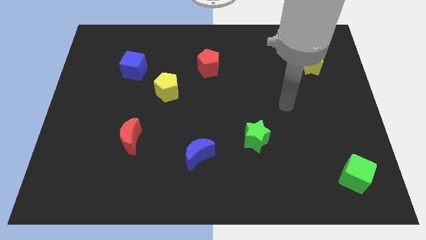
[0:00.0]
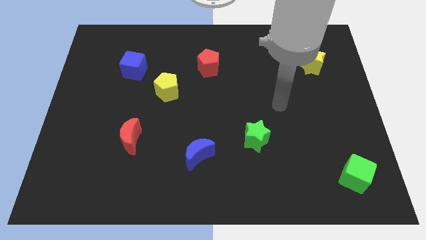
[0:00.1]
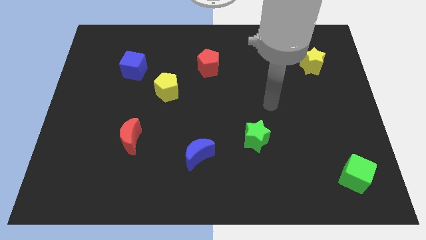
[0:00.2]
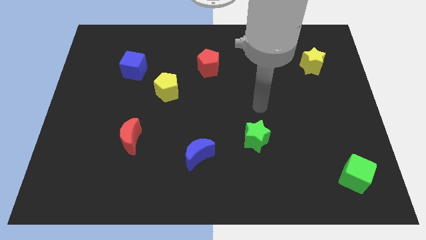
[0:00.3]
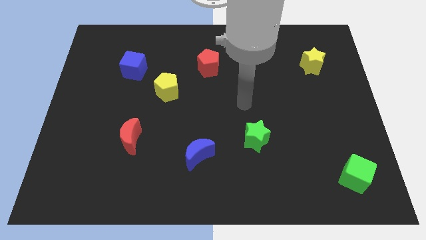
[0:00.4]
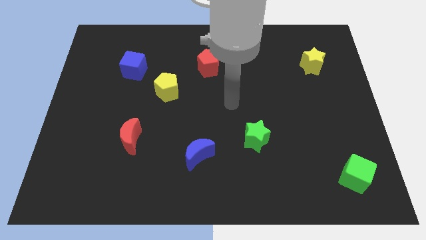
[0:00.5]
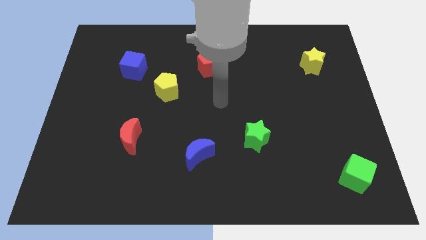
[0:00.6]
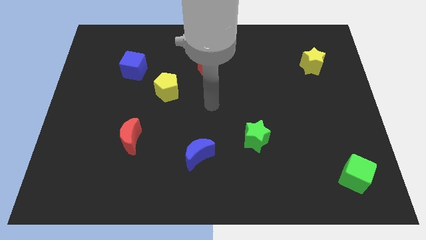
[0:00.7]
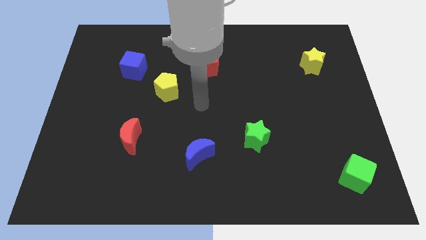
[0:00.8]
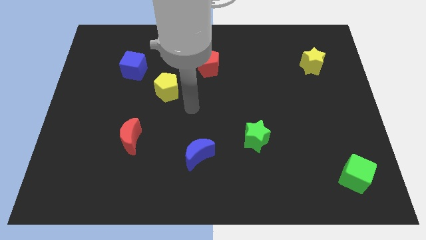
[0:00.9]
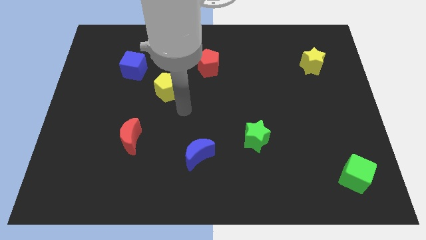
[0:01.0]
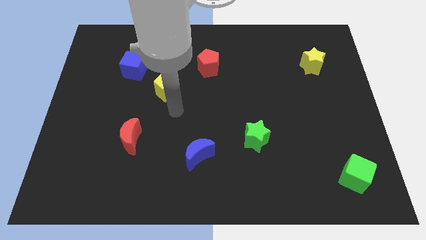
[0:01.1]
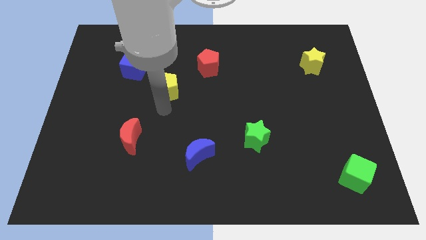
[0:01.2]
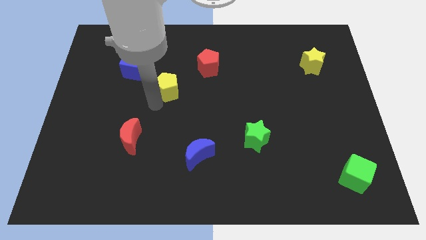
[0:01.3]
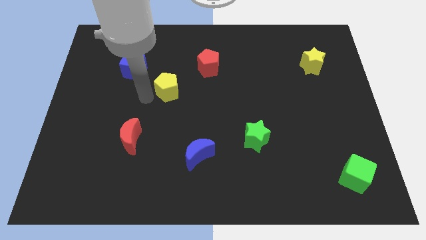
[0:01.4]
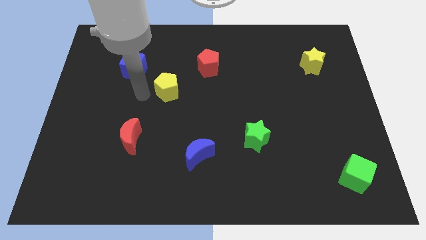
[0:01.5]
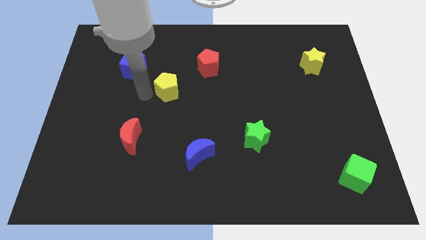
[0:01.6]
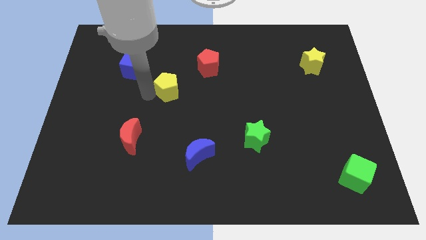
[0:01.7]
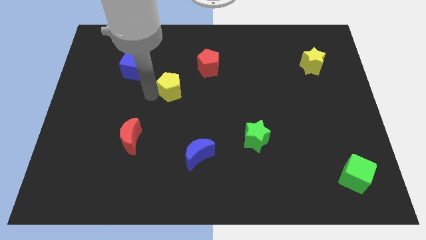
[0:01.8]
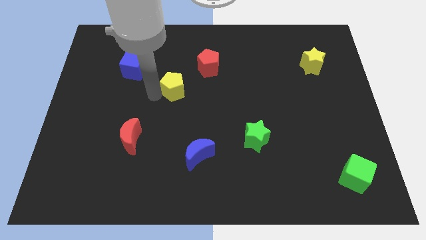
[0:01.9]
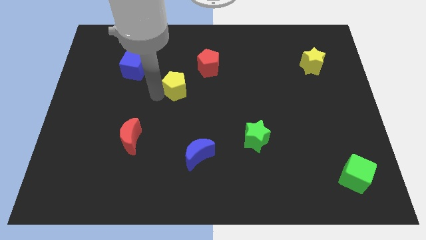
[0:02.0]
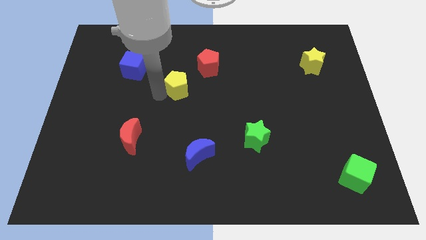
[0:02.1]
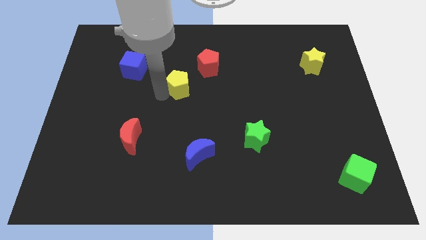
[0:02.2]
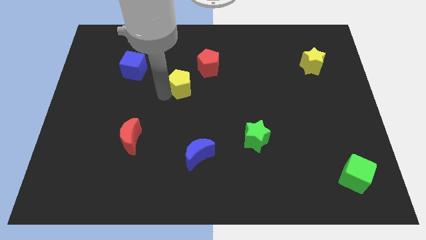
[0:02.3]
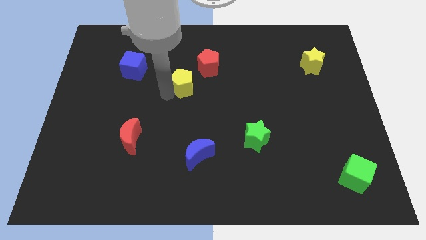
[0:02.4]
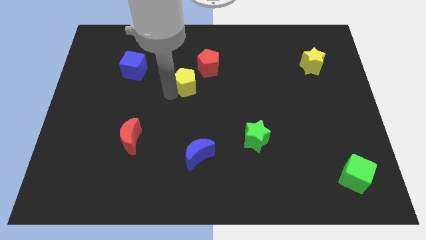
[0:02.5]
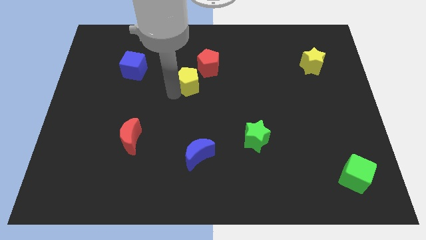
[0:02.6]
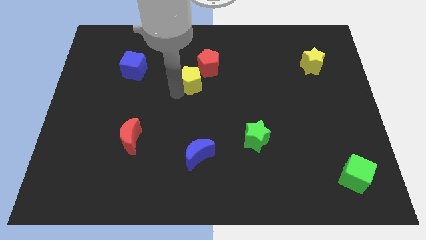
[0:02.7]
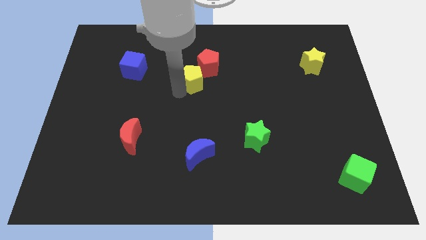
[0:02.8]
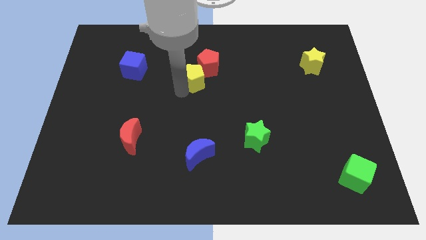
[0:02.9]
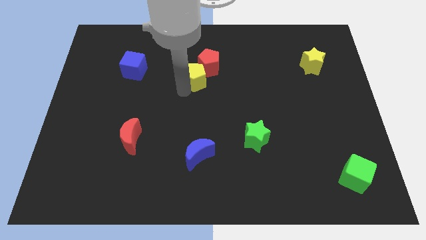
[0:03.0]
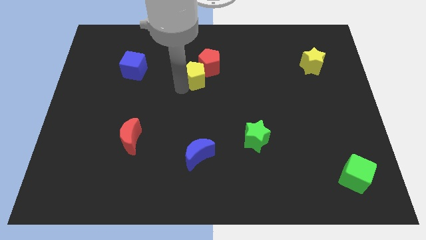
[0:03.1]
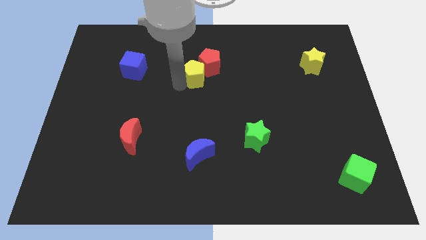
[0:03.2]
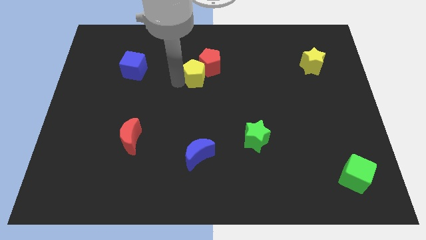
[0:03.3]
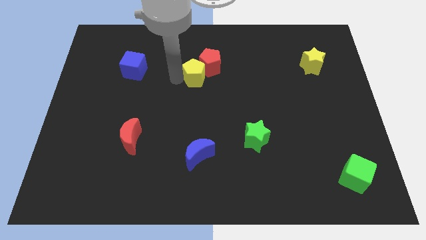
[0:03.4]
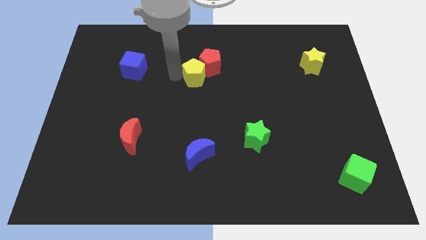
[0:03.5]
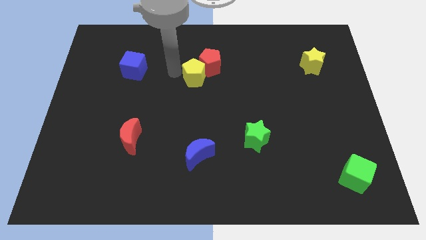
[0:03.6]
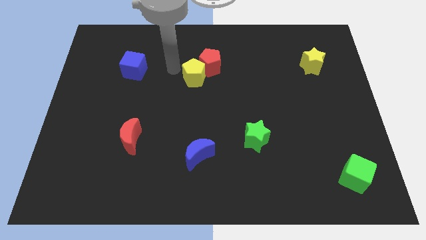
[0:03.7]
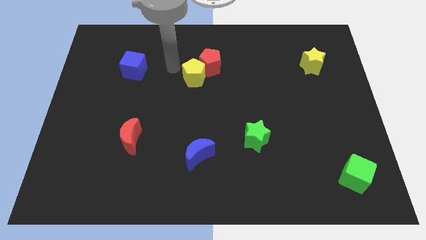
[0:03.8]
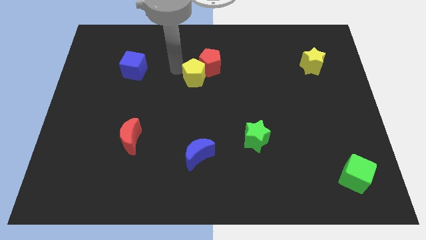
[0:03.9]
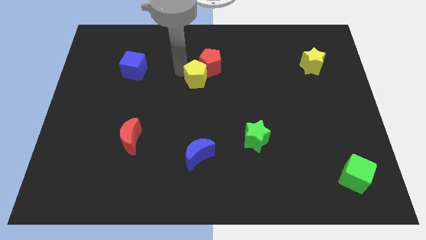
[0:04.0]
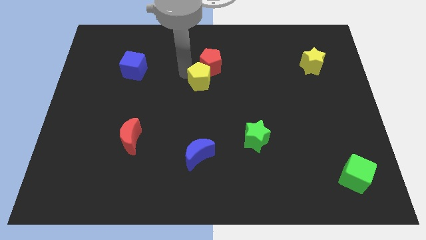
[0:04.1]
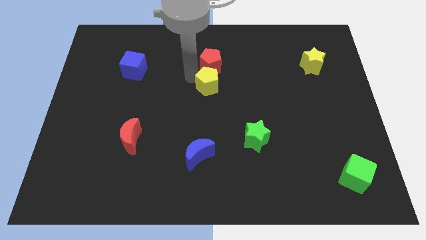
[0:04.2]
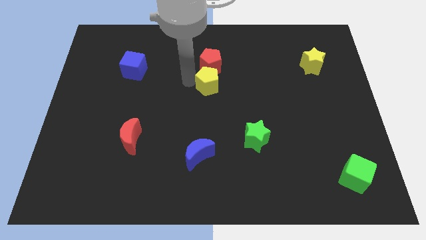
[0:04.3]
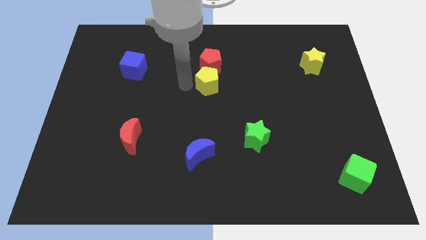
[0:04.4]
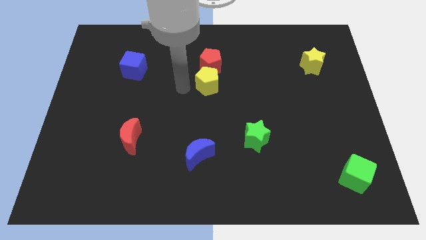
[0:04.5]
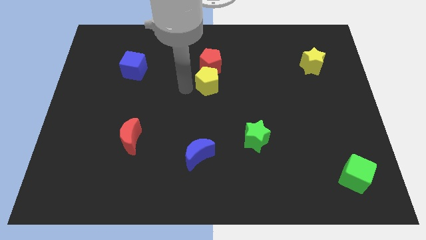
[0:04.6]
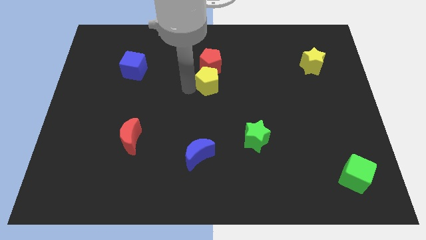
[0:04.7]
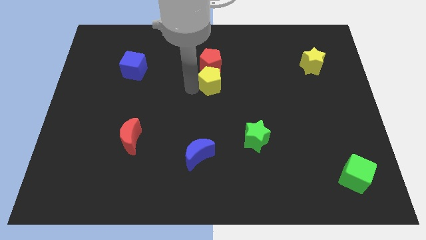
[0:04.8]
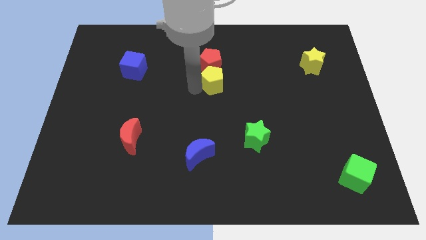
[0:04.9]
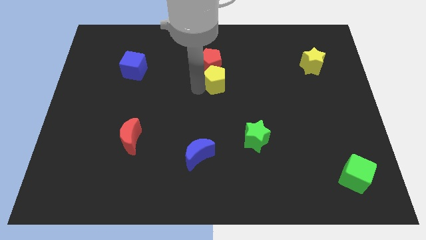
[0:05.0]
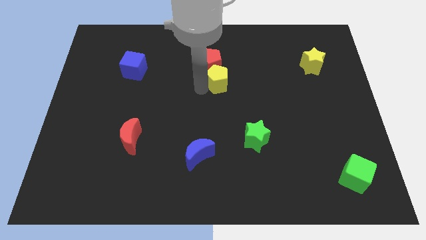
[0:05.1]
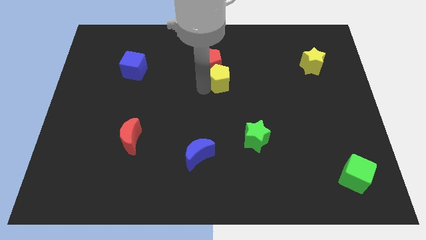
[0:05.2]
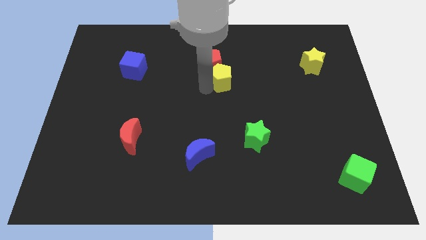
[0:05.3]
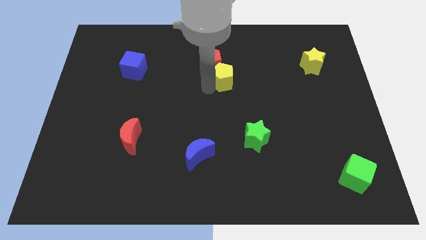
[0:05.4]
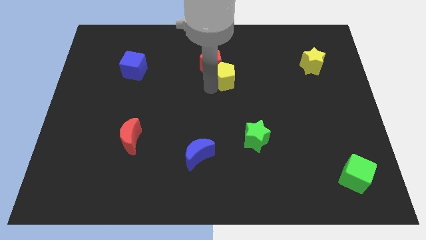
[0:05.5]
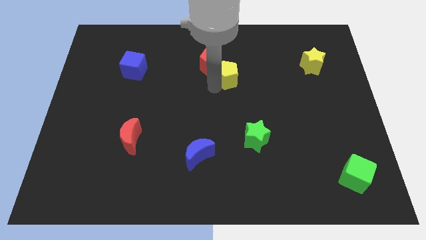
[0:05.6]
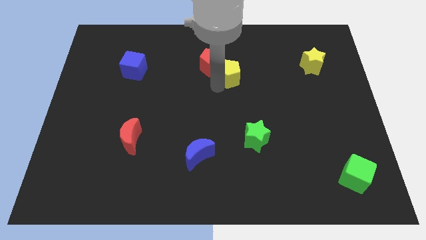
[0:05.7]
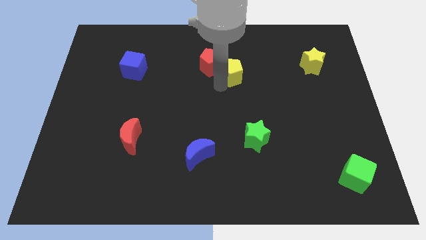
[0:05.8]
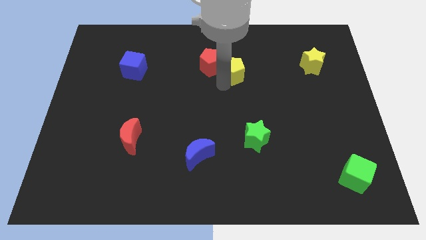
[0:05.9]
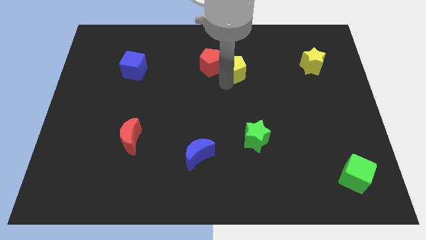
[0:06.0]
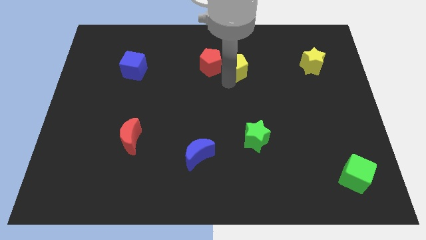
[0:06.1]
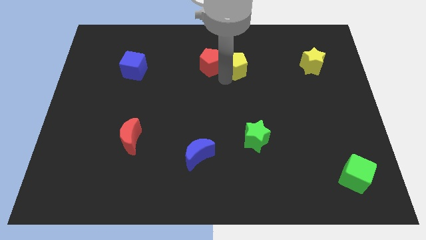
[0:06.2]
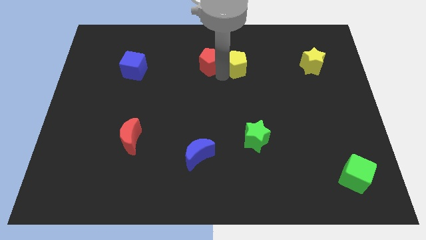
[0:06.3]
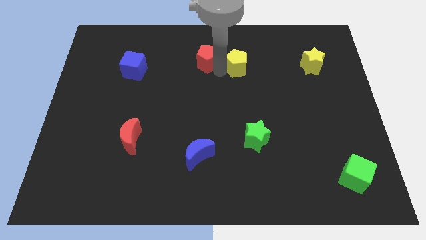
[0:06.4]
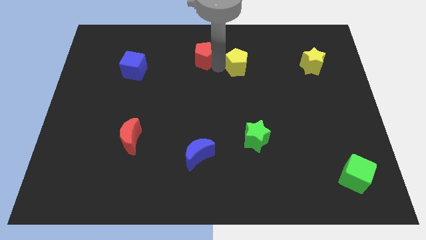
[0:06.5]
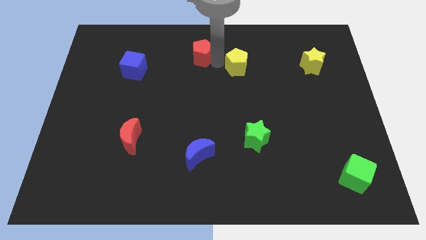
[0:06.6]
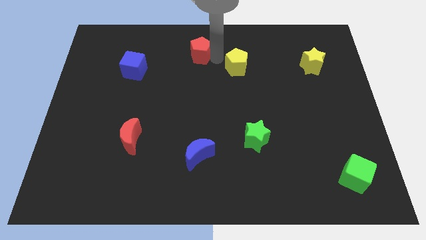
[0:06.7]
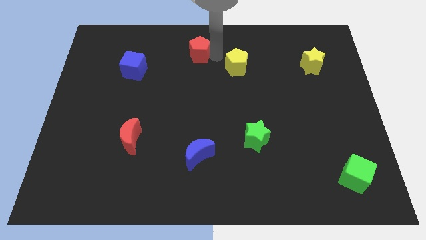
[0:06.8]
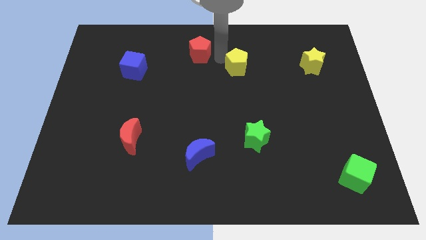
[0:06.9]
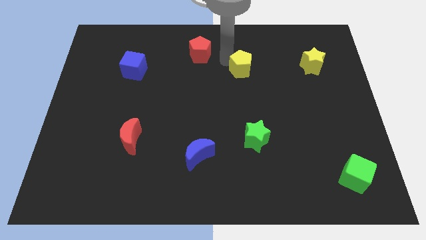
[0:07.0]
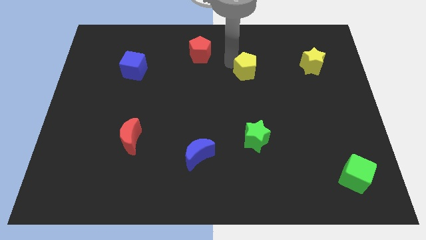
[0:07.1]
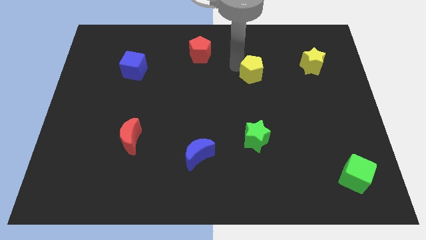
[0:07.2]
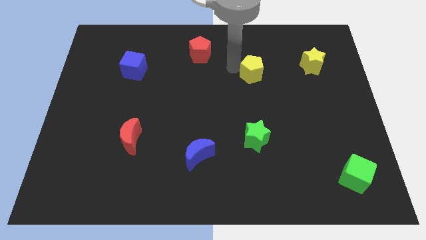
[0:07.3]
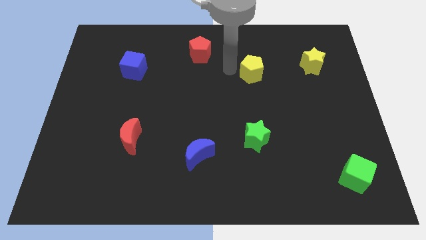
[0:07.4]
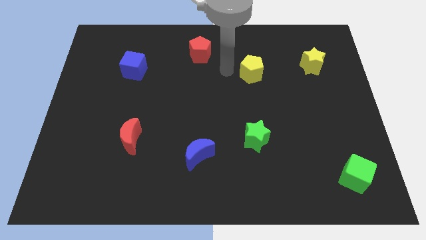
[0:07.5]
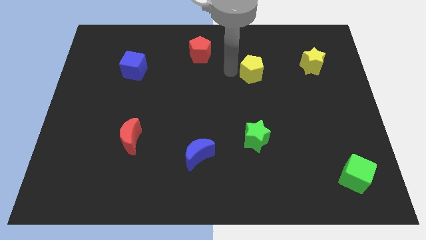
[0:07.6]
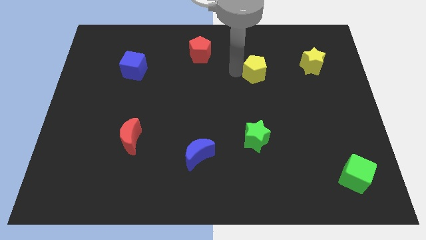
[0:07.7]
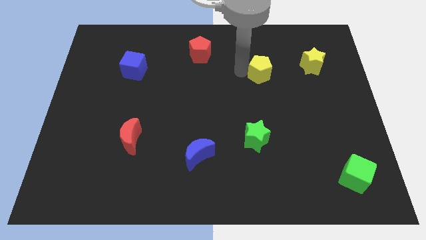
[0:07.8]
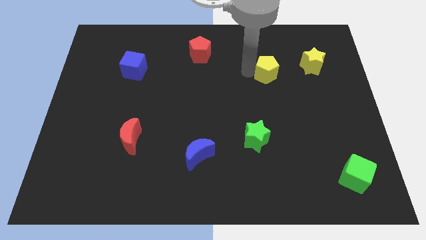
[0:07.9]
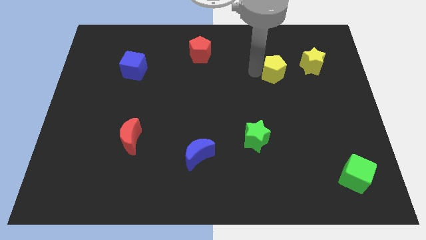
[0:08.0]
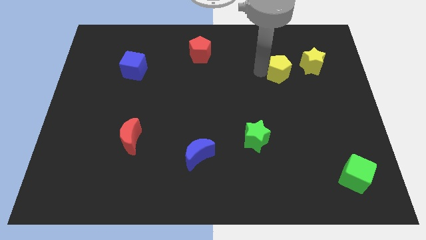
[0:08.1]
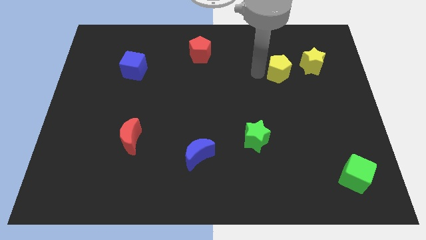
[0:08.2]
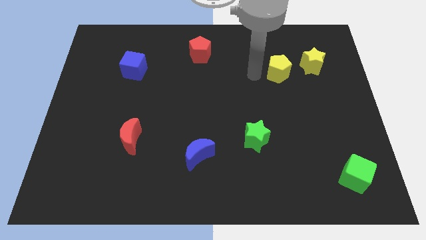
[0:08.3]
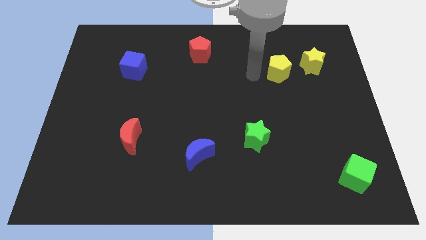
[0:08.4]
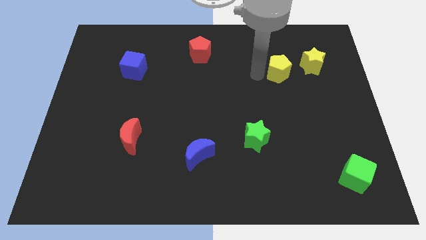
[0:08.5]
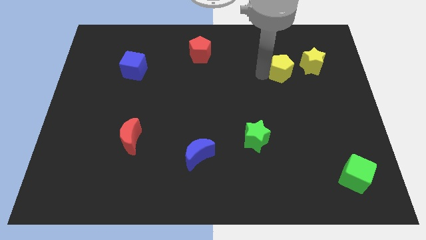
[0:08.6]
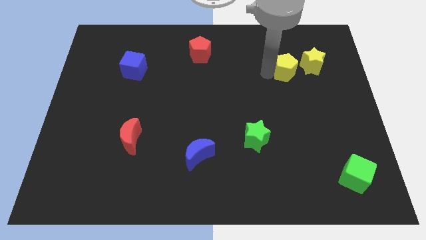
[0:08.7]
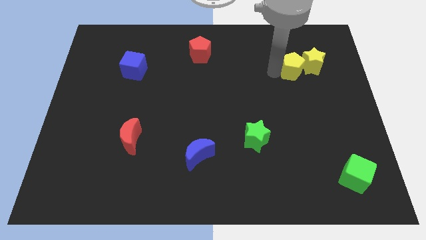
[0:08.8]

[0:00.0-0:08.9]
put the yellow pentagon towards the yellow star
